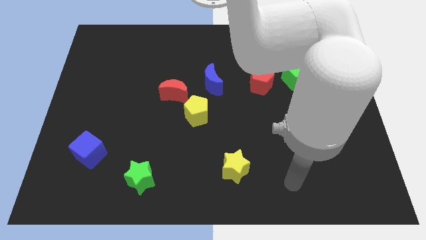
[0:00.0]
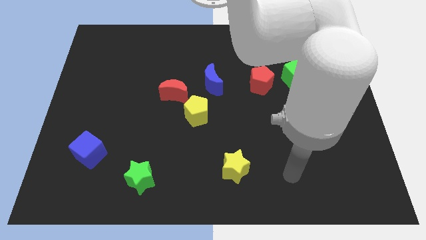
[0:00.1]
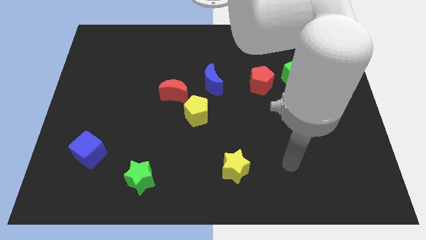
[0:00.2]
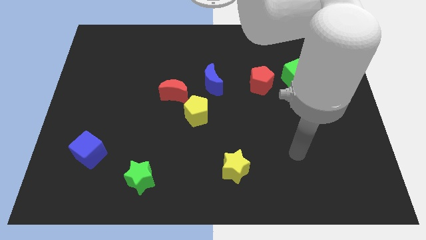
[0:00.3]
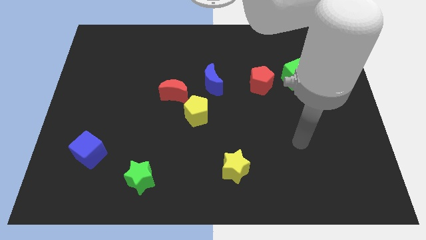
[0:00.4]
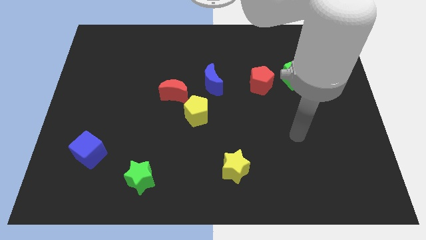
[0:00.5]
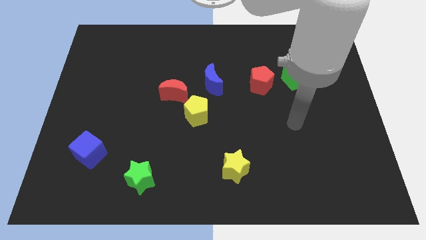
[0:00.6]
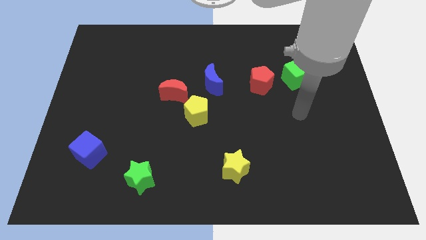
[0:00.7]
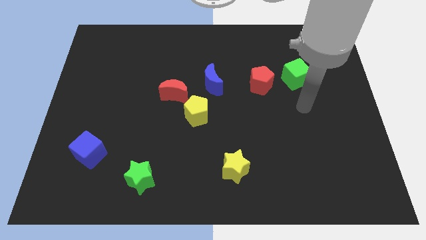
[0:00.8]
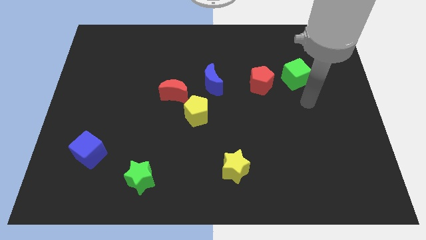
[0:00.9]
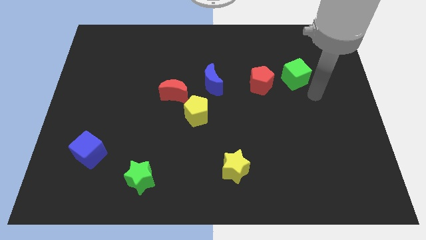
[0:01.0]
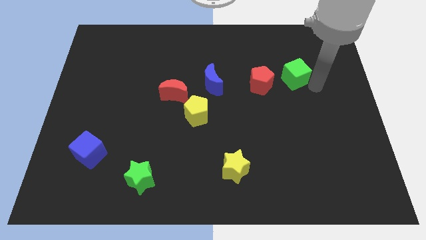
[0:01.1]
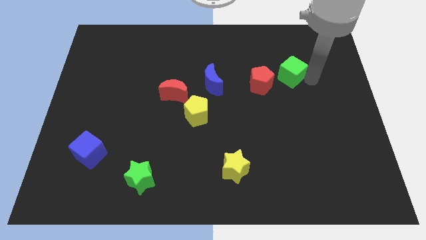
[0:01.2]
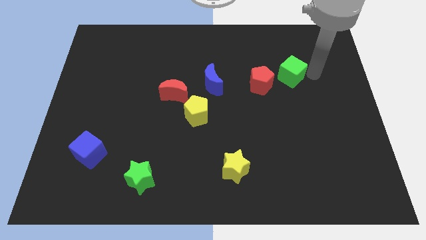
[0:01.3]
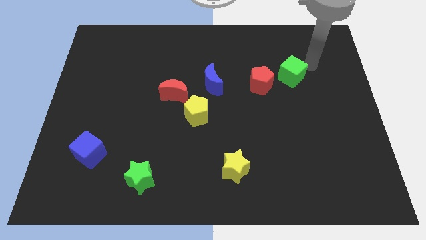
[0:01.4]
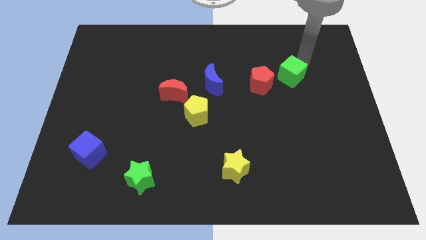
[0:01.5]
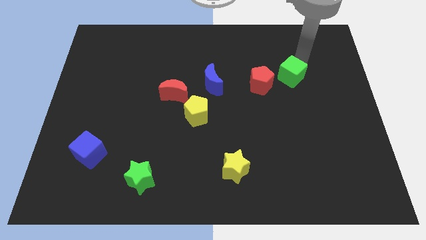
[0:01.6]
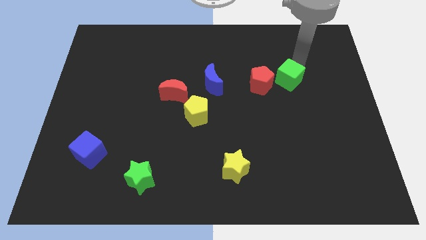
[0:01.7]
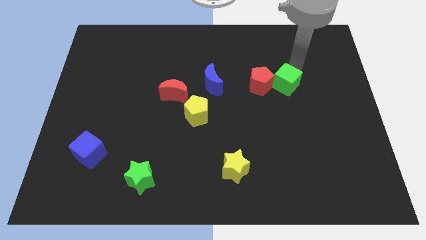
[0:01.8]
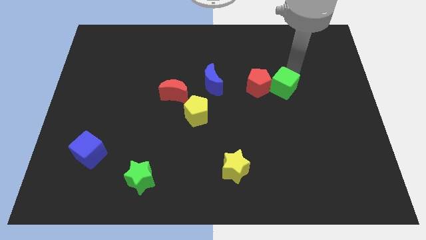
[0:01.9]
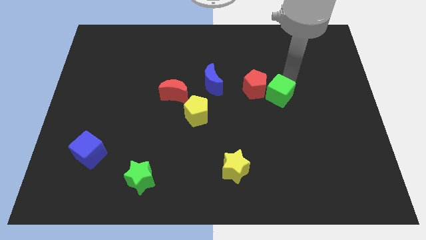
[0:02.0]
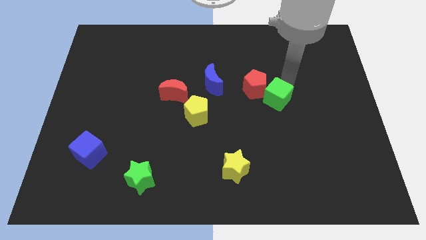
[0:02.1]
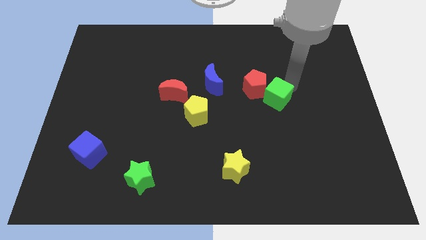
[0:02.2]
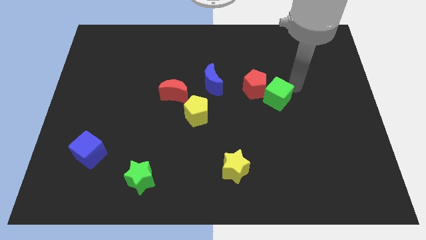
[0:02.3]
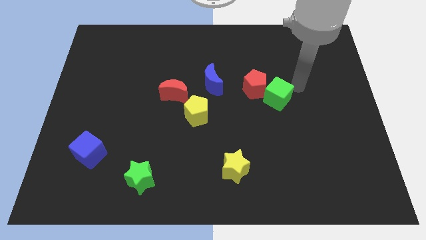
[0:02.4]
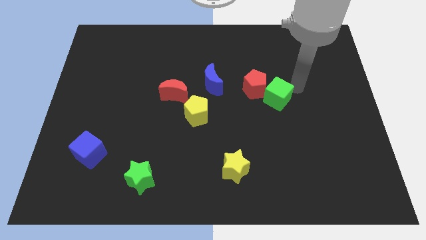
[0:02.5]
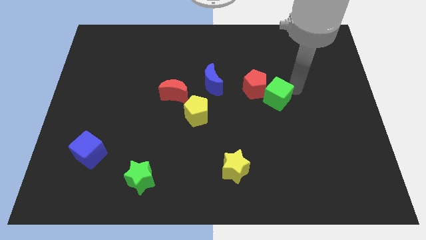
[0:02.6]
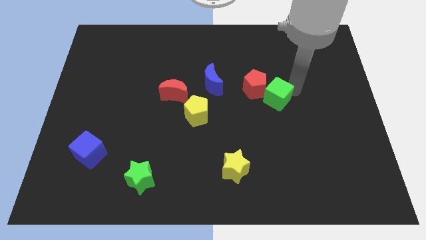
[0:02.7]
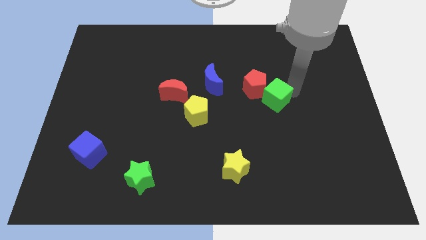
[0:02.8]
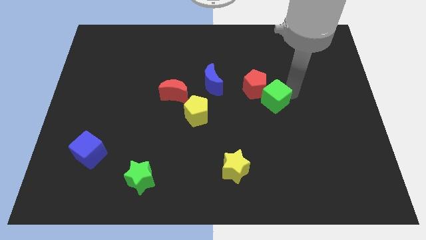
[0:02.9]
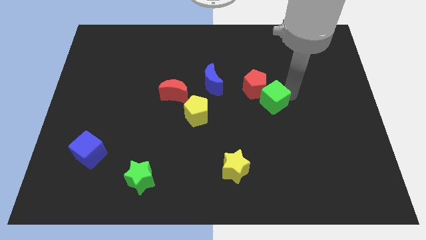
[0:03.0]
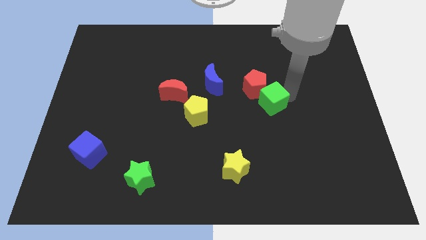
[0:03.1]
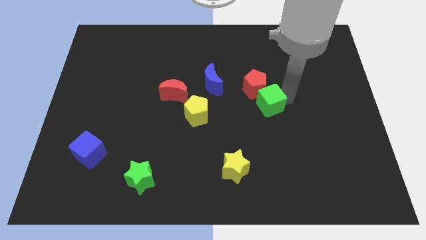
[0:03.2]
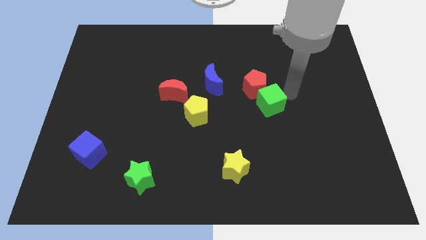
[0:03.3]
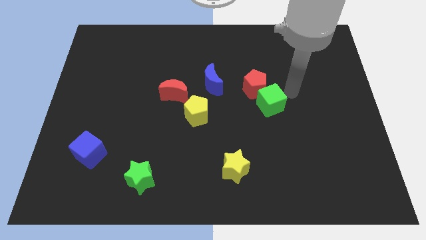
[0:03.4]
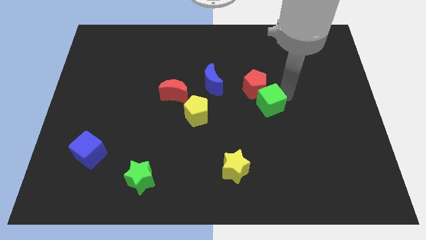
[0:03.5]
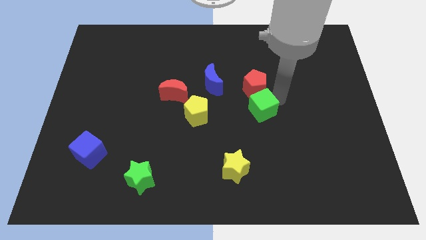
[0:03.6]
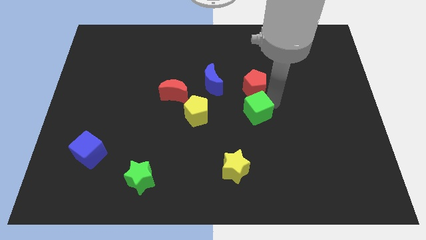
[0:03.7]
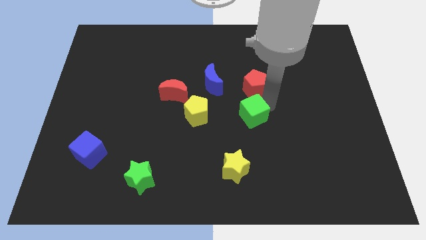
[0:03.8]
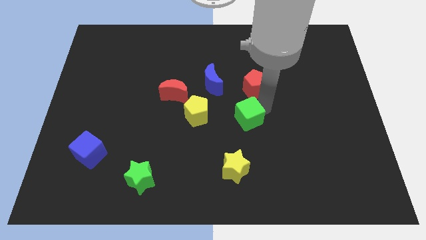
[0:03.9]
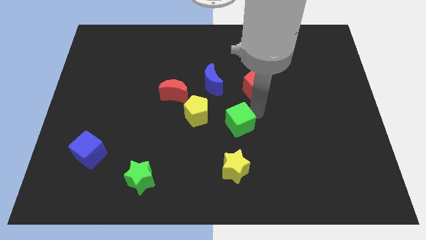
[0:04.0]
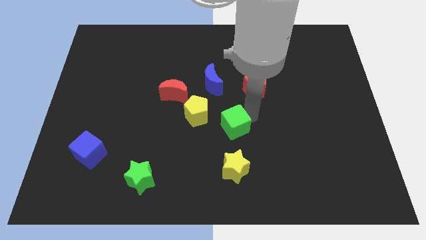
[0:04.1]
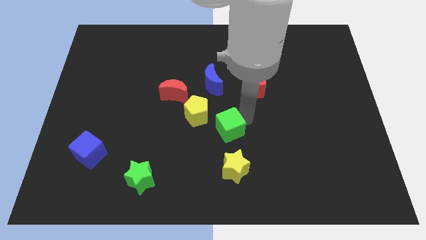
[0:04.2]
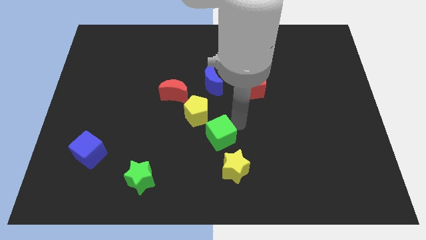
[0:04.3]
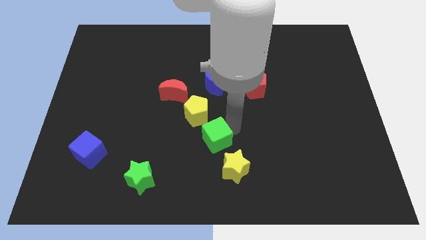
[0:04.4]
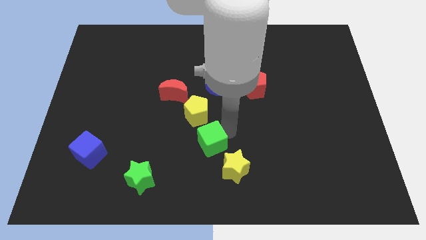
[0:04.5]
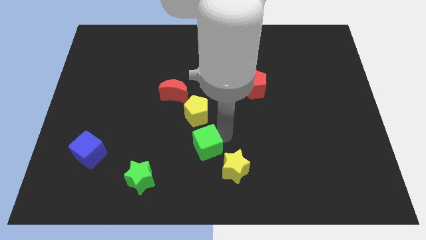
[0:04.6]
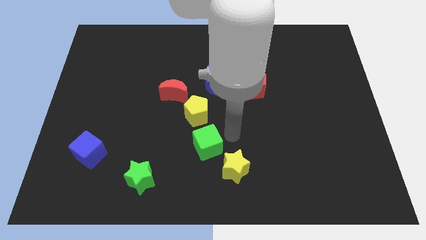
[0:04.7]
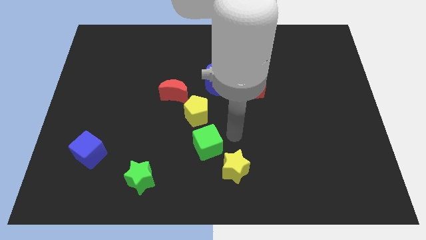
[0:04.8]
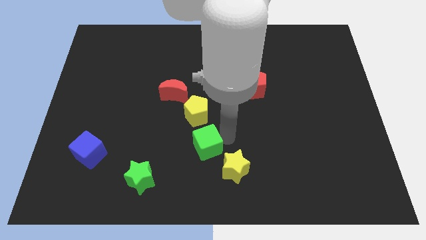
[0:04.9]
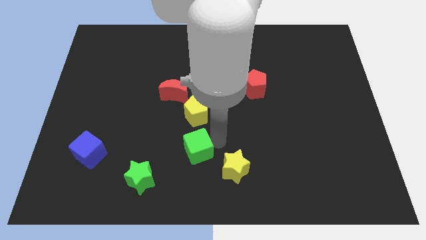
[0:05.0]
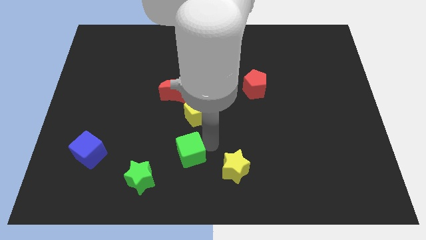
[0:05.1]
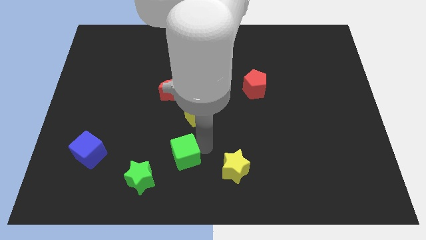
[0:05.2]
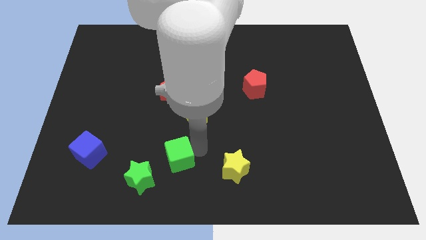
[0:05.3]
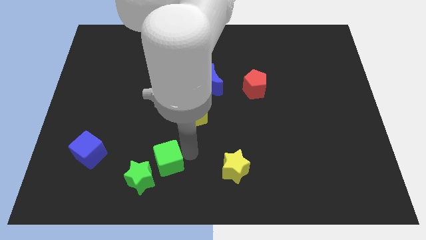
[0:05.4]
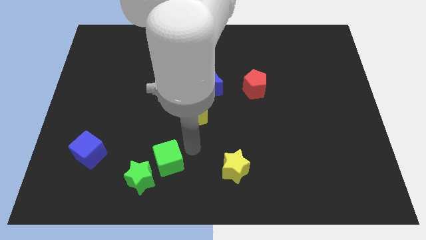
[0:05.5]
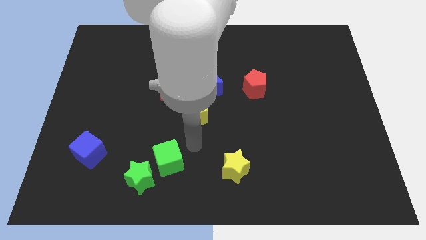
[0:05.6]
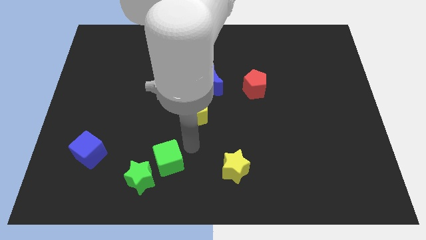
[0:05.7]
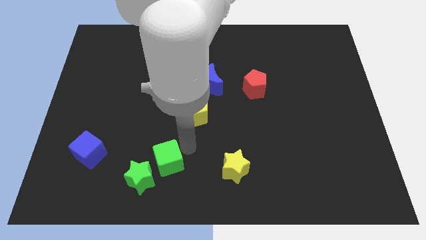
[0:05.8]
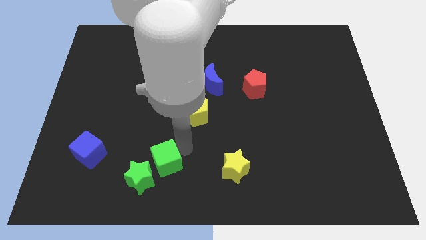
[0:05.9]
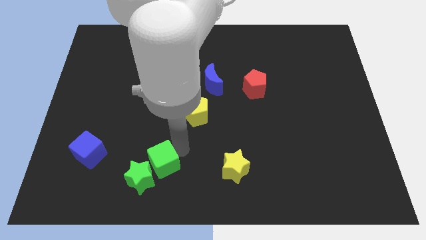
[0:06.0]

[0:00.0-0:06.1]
push the green cube close to the green star
